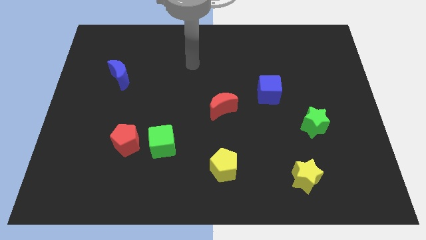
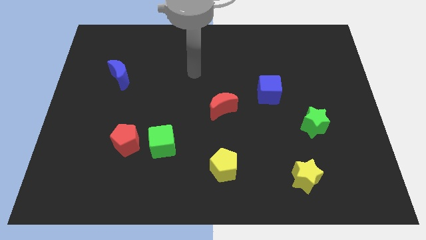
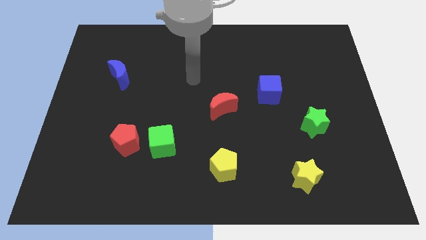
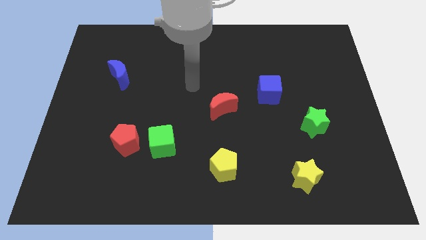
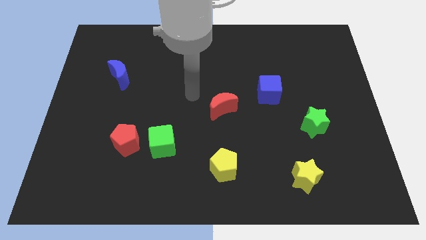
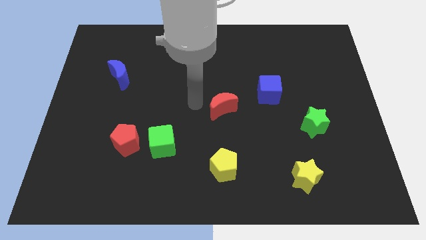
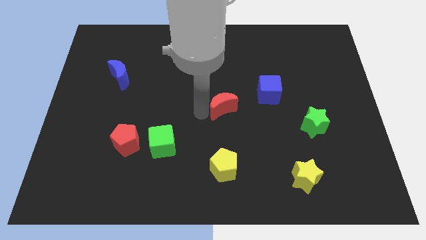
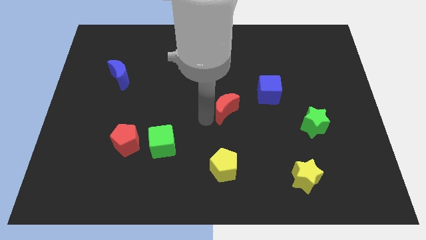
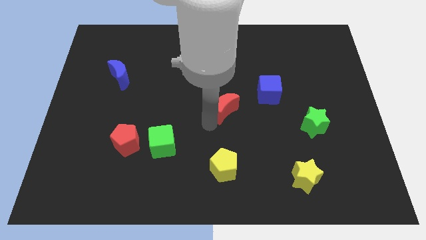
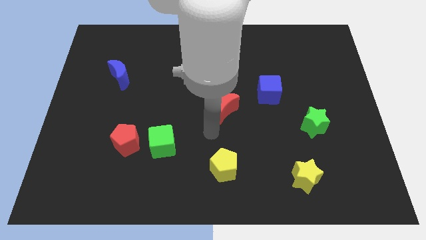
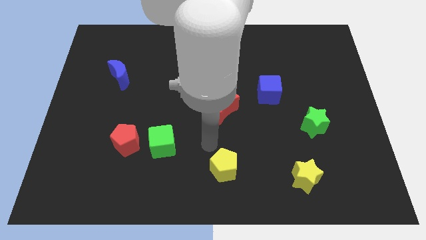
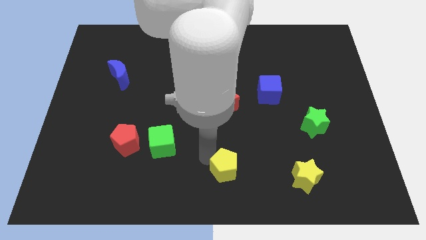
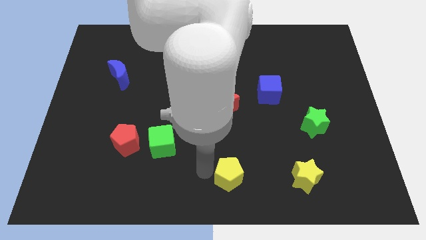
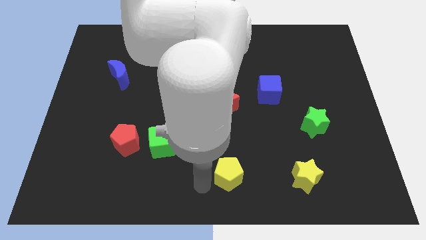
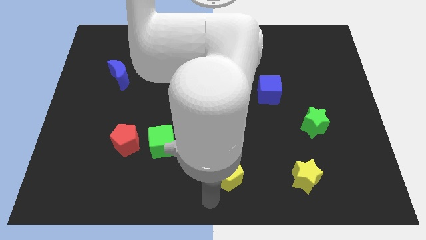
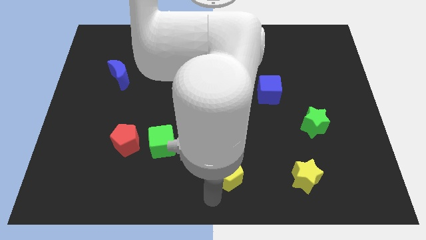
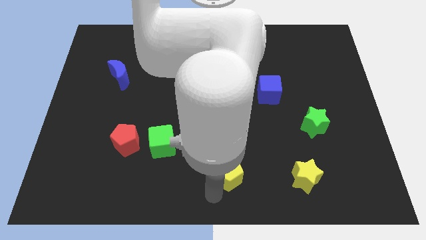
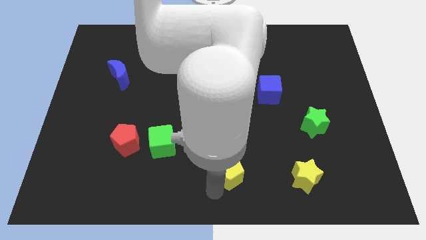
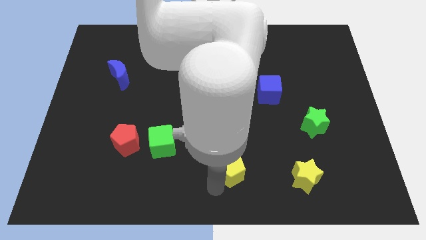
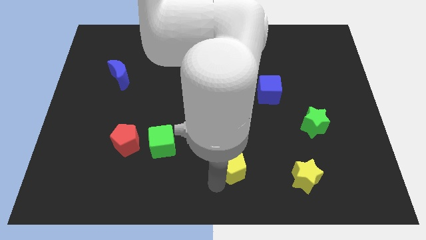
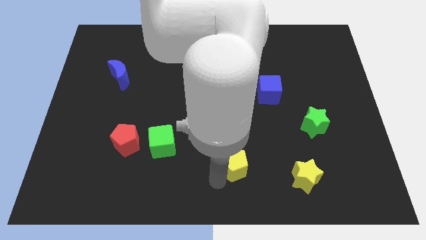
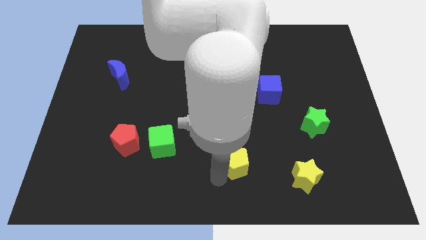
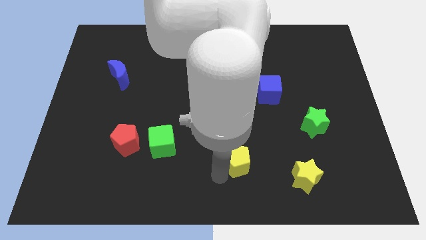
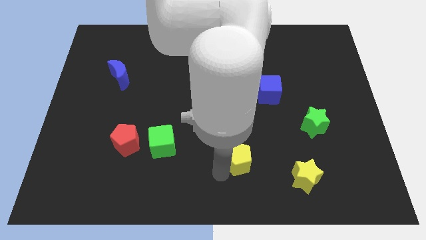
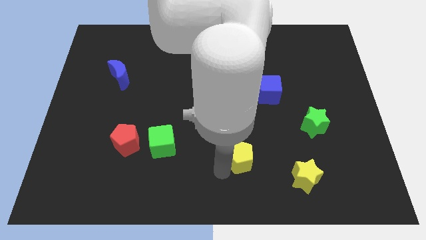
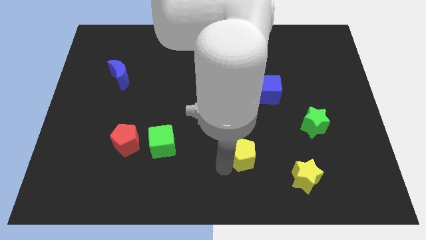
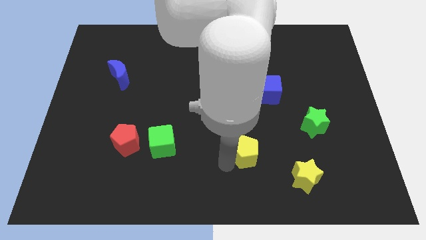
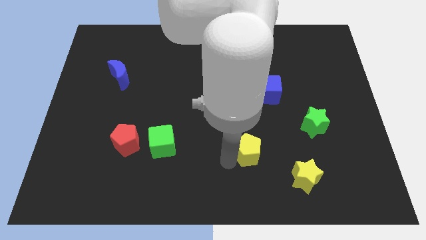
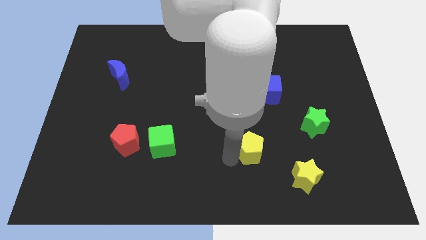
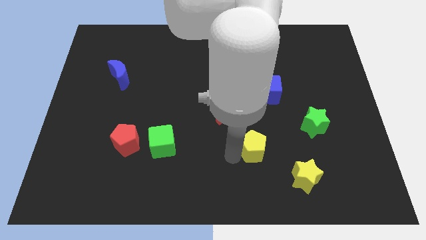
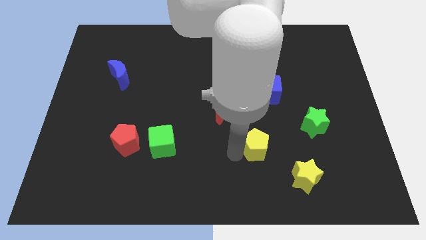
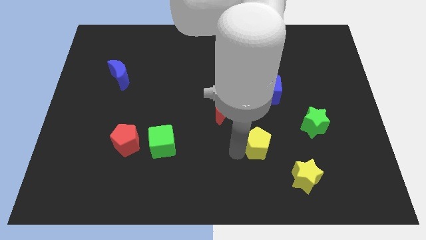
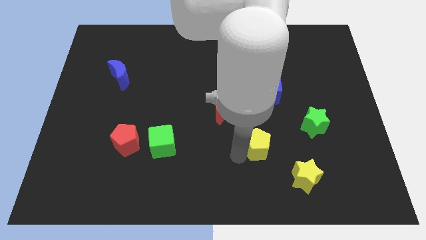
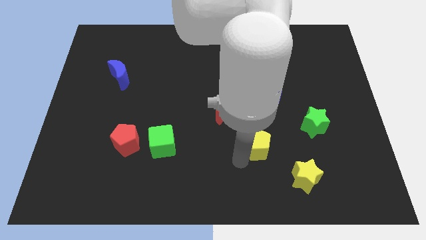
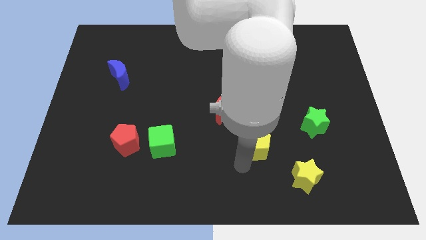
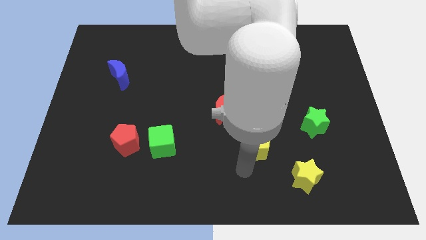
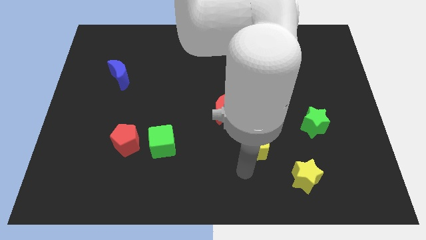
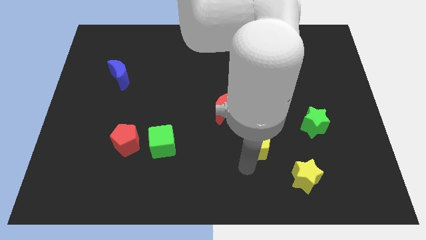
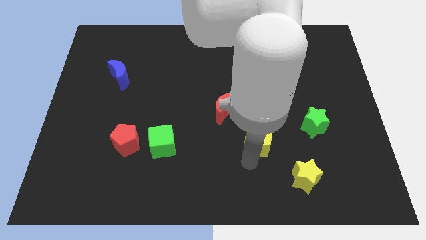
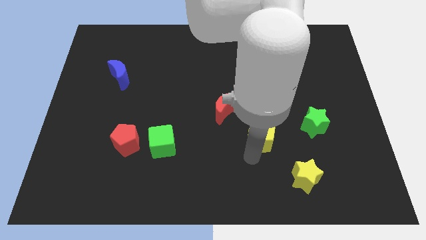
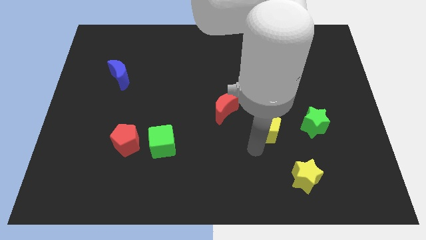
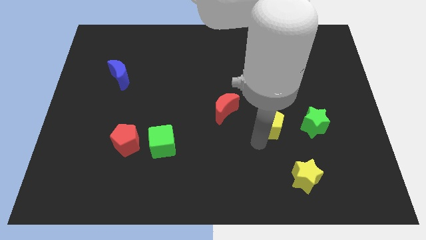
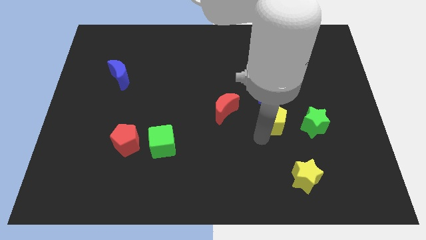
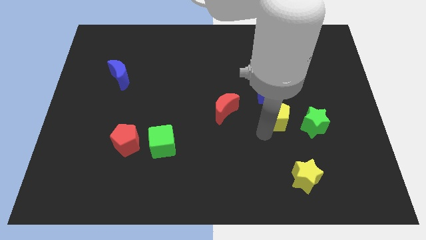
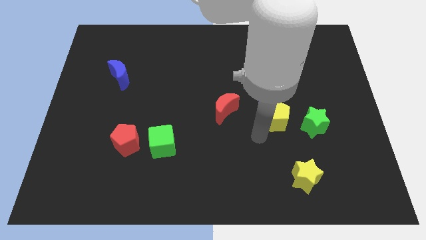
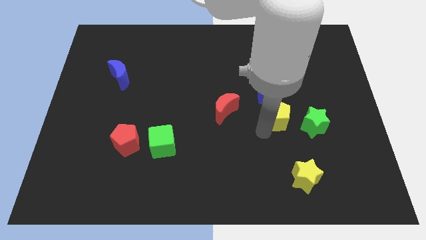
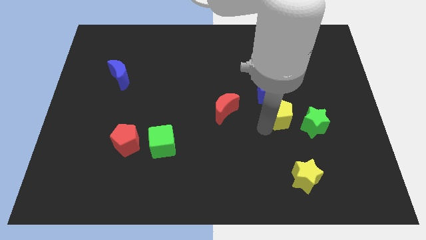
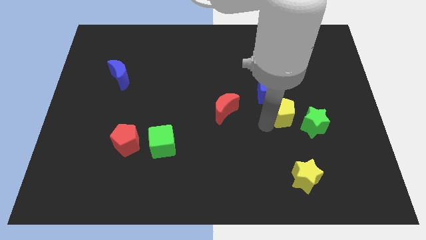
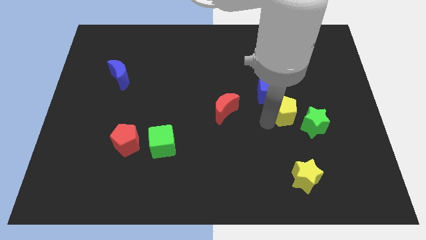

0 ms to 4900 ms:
move the yellow pentagon diagonally up and right

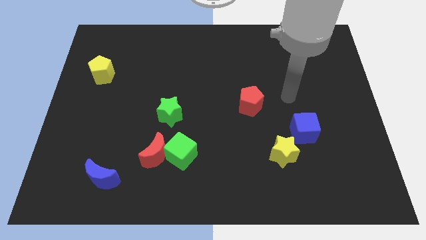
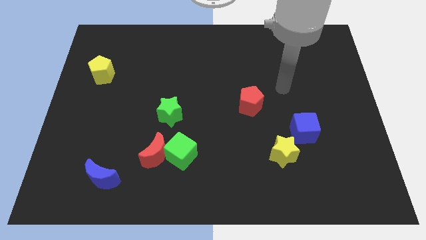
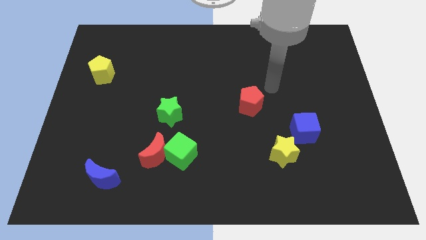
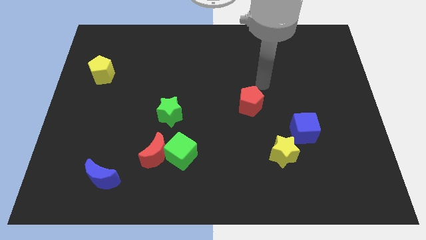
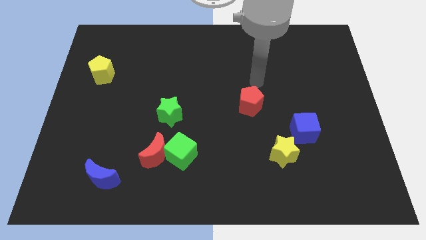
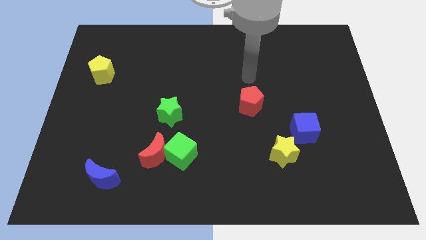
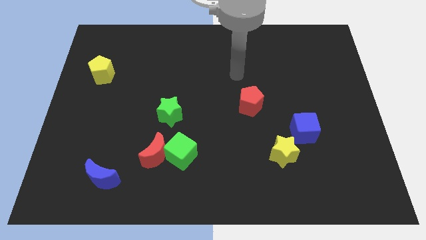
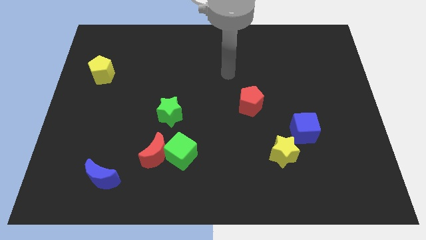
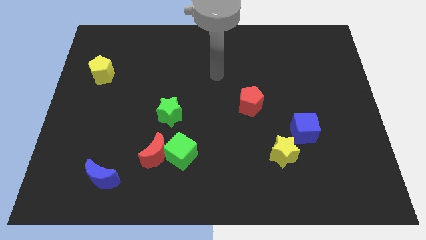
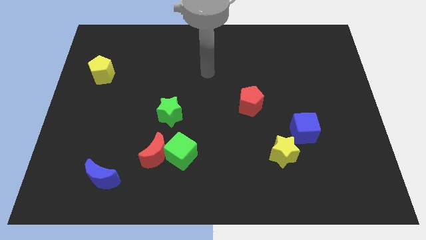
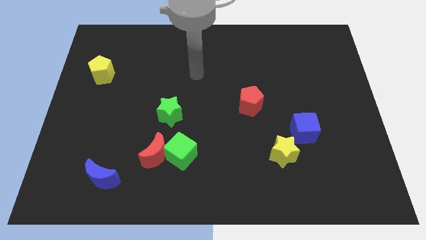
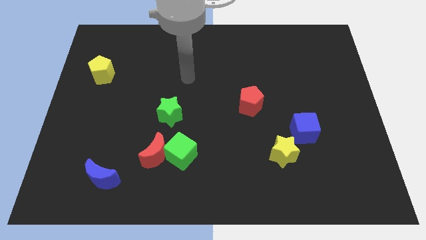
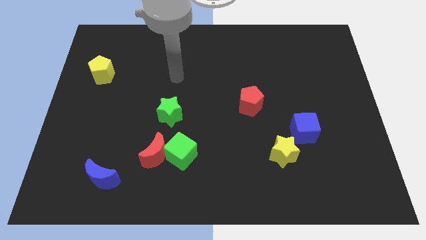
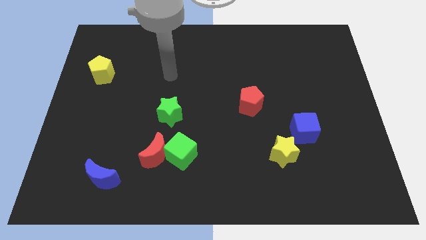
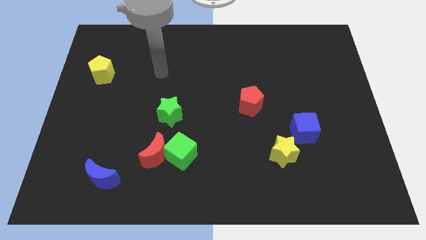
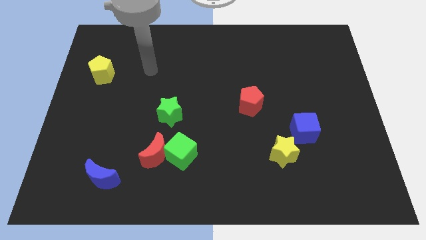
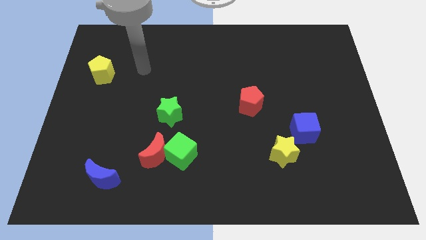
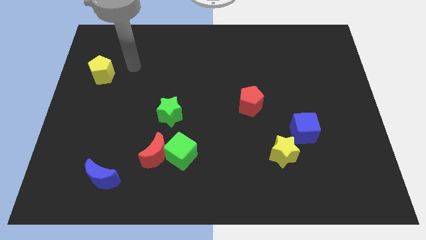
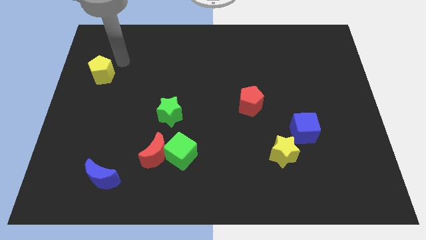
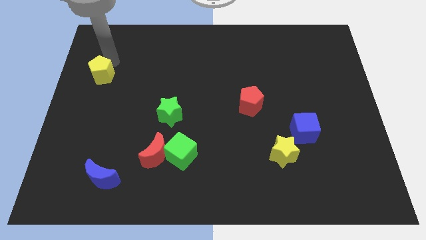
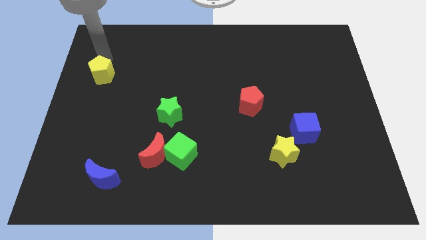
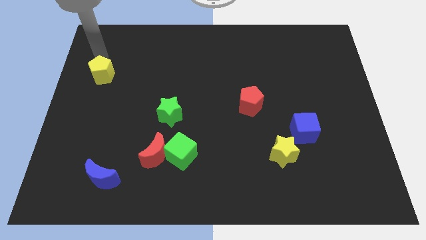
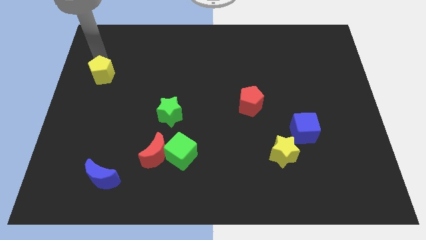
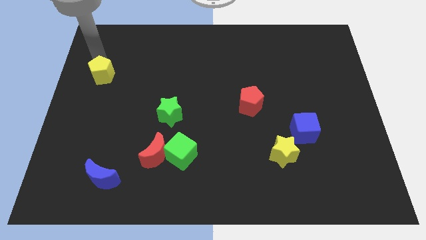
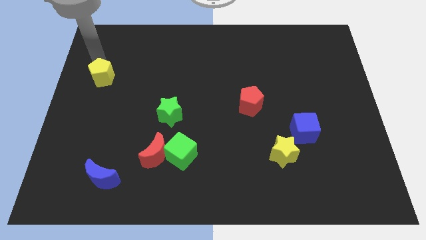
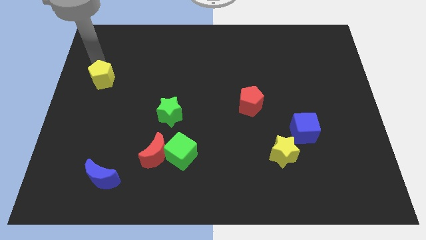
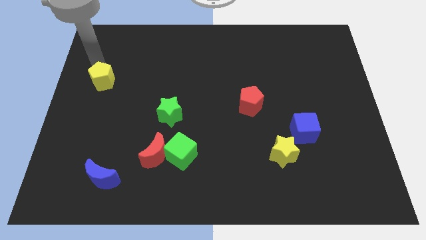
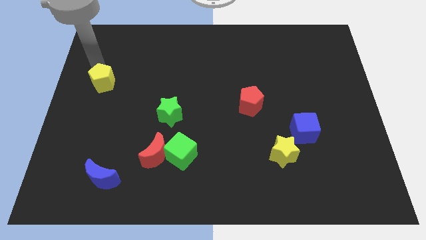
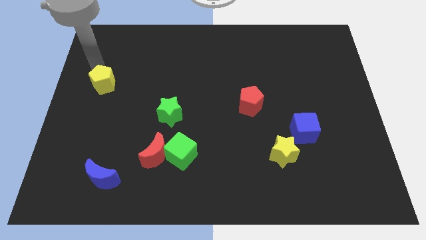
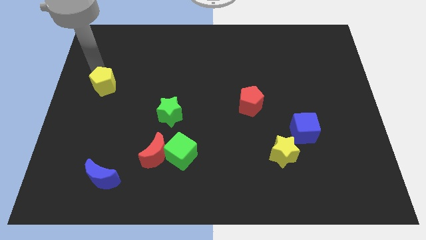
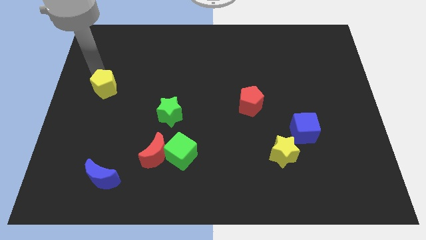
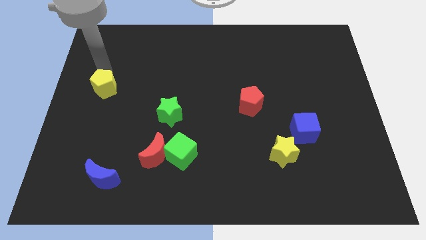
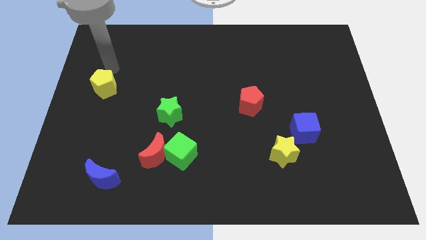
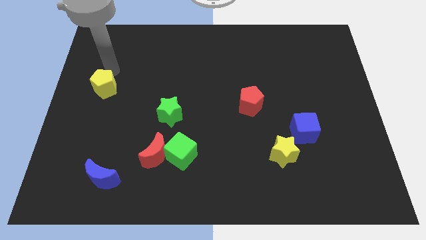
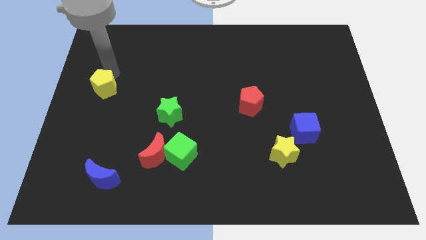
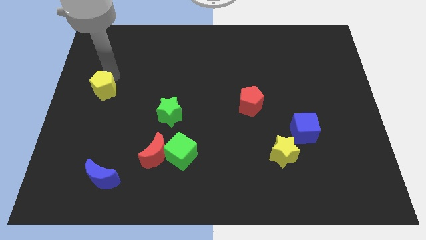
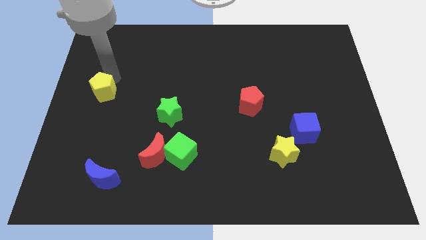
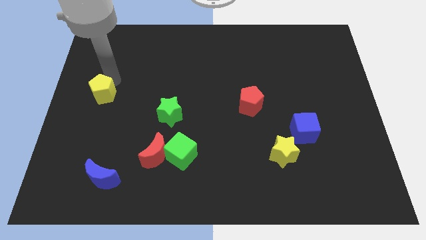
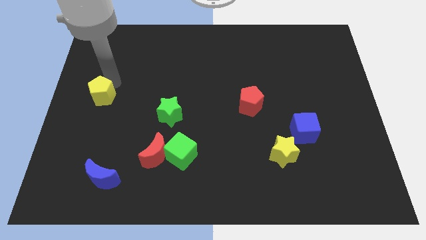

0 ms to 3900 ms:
push the yellow pentagon downwards a bit
